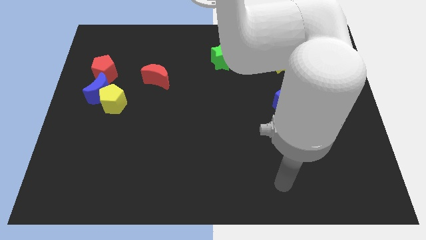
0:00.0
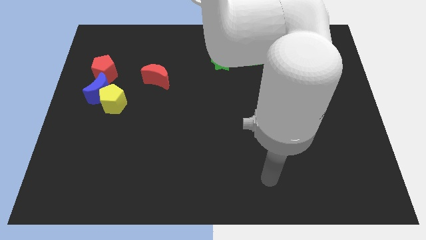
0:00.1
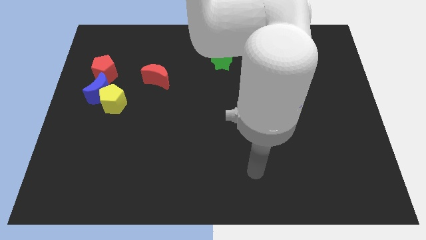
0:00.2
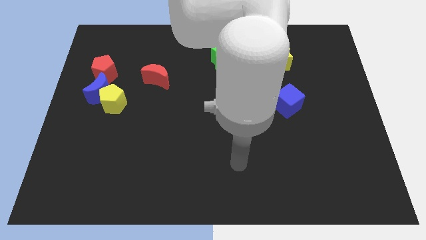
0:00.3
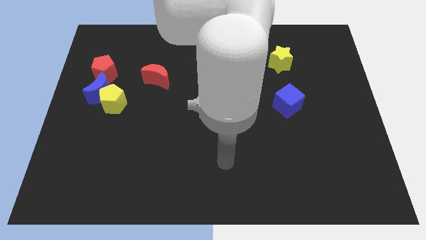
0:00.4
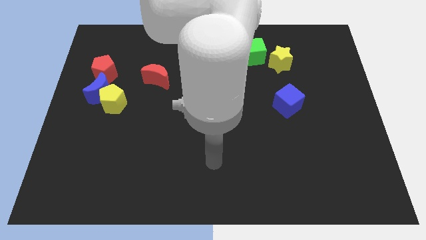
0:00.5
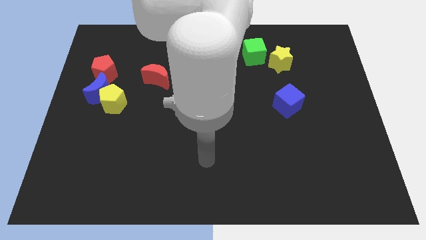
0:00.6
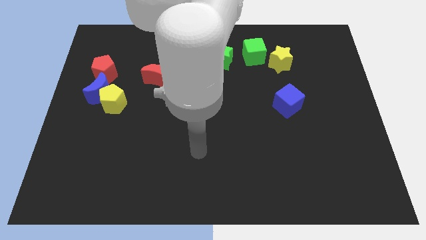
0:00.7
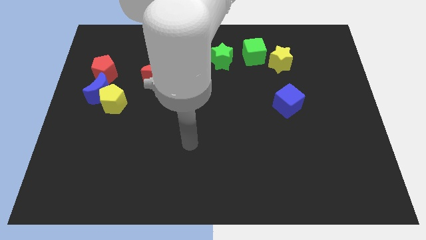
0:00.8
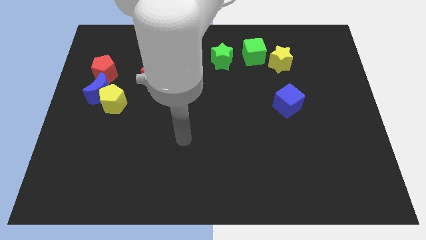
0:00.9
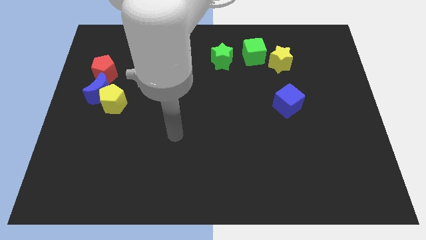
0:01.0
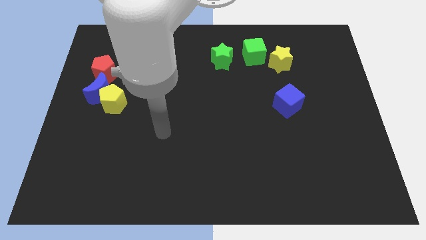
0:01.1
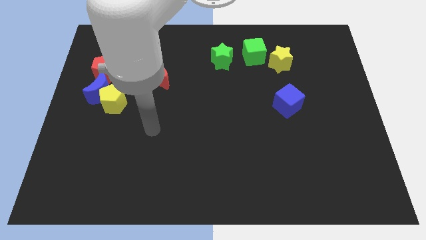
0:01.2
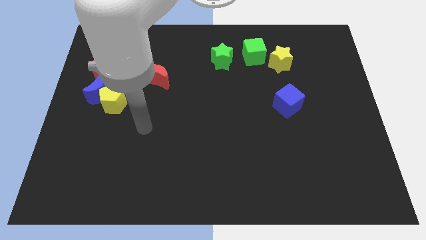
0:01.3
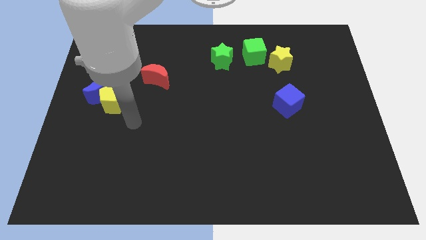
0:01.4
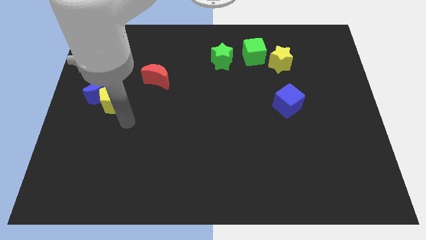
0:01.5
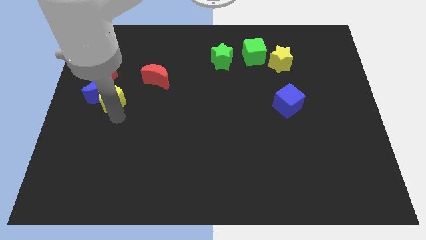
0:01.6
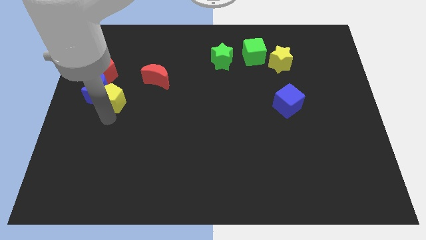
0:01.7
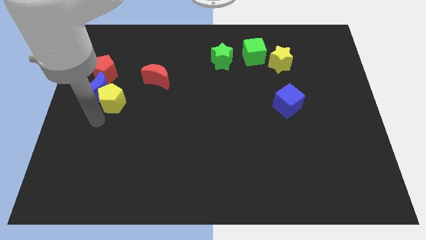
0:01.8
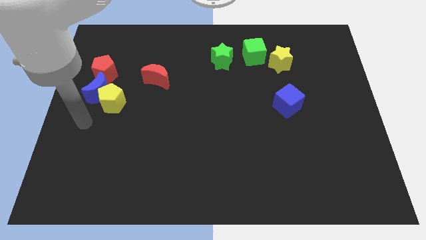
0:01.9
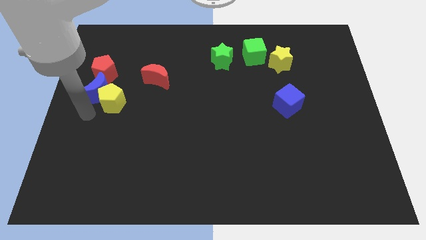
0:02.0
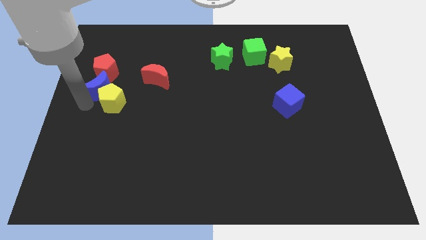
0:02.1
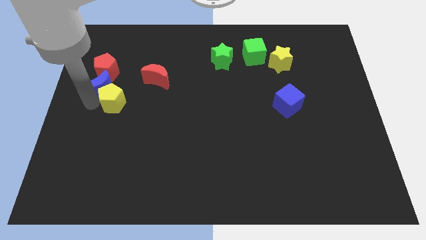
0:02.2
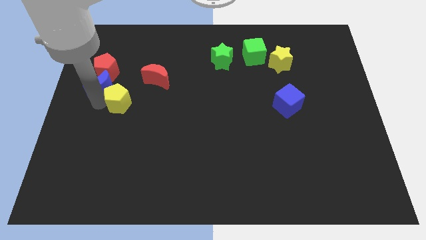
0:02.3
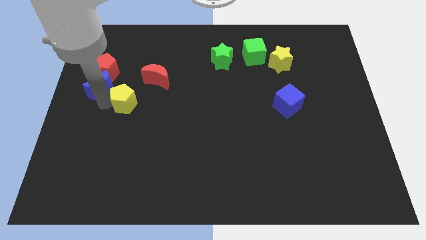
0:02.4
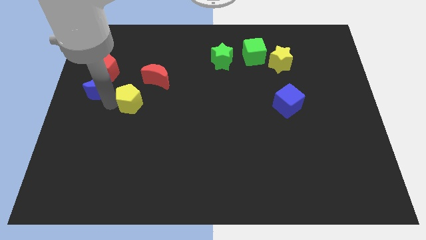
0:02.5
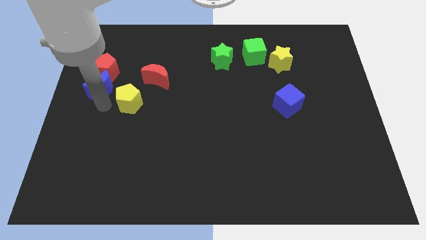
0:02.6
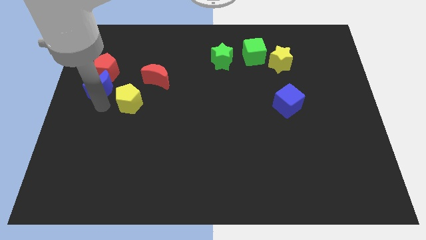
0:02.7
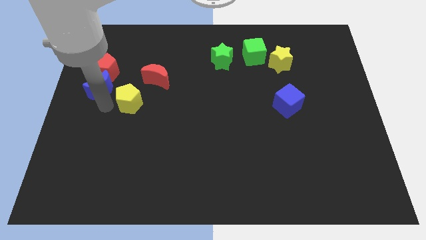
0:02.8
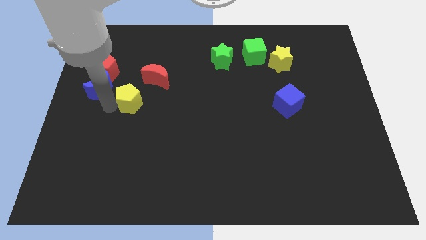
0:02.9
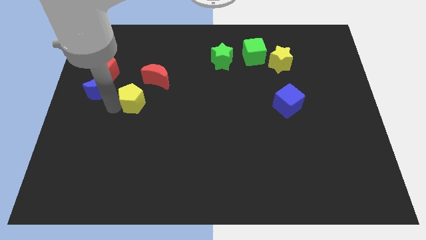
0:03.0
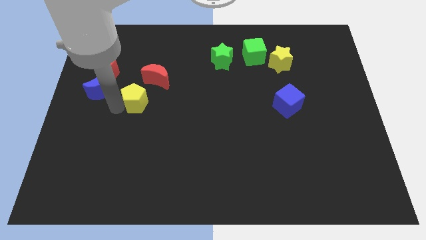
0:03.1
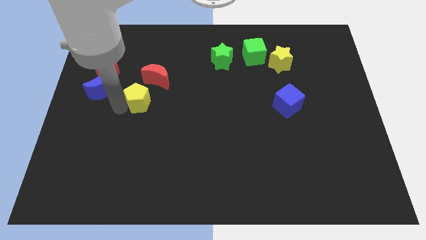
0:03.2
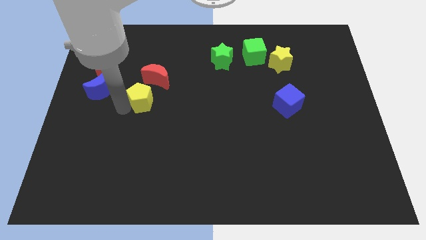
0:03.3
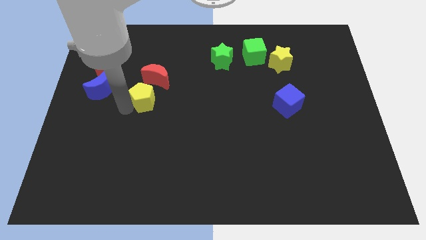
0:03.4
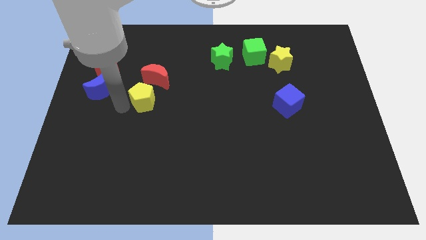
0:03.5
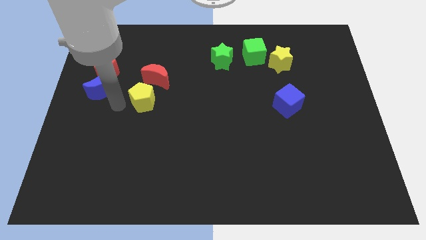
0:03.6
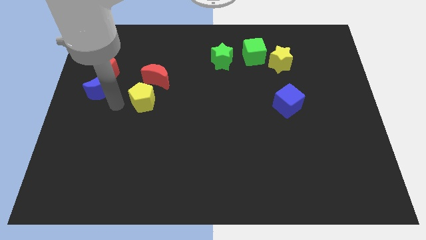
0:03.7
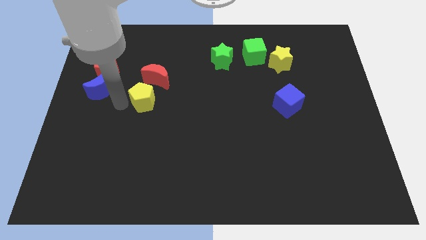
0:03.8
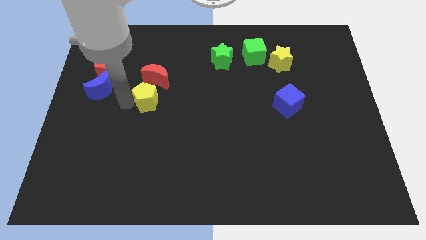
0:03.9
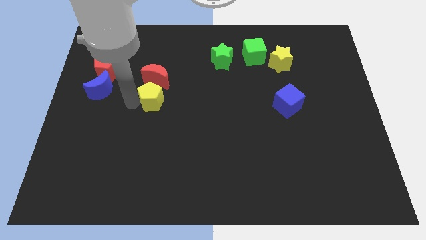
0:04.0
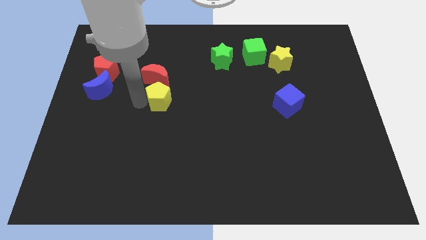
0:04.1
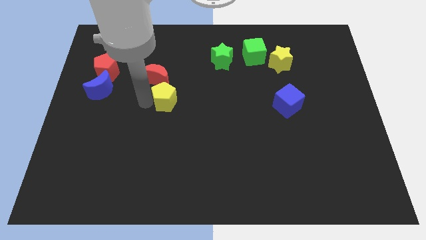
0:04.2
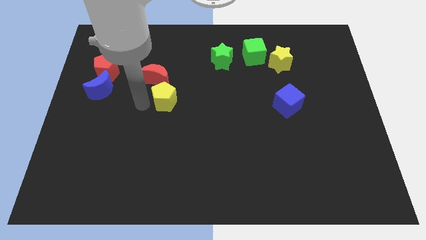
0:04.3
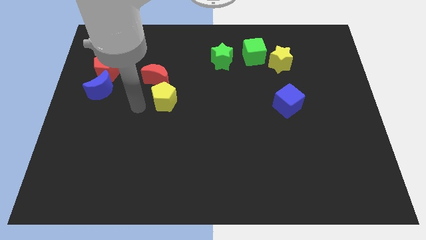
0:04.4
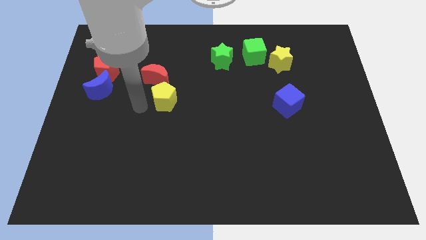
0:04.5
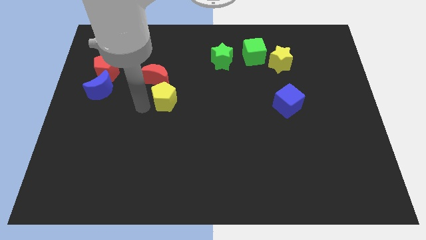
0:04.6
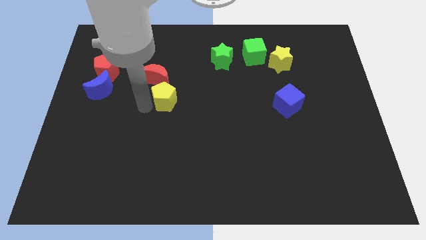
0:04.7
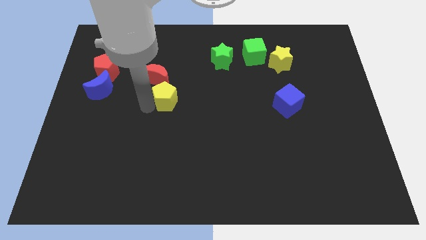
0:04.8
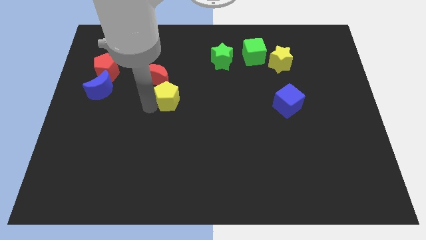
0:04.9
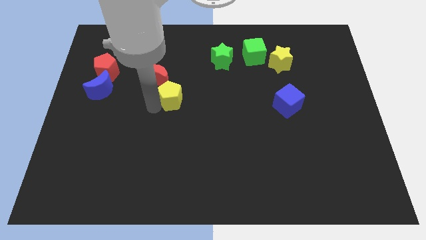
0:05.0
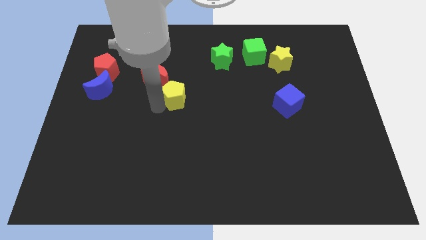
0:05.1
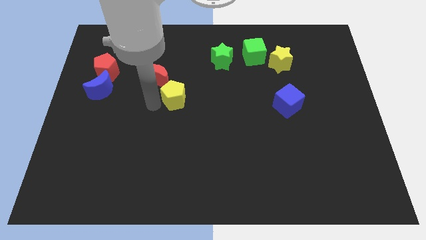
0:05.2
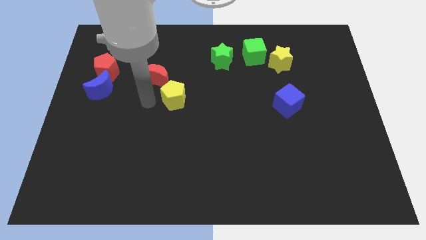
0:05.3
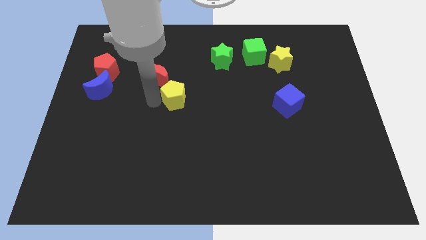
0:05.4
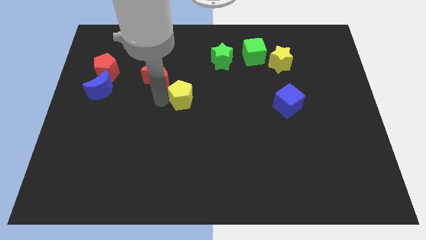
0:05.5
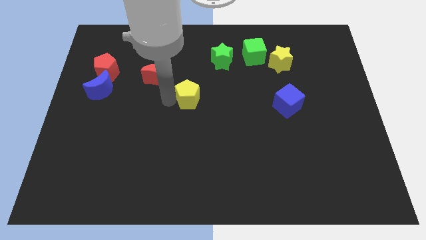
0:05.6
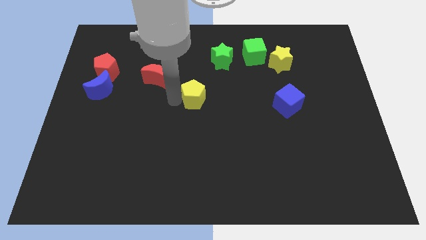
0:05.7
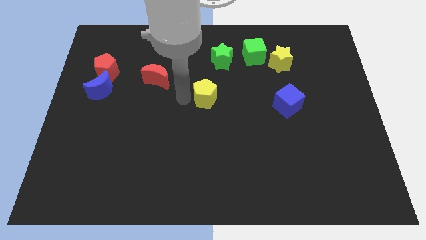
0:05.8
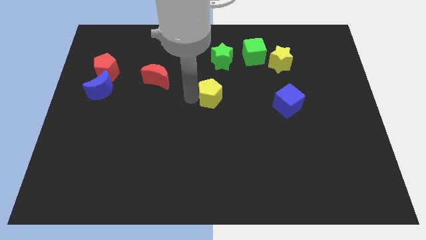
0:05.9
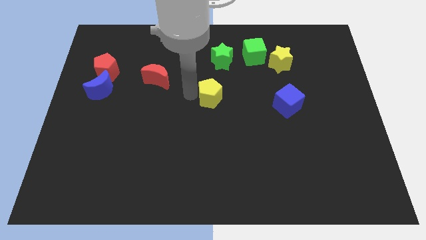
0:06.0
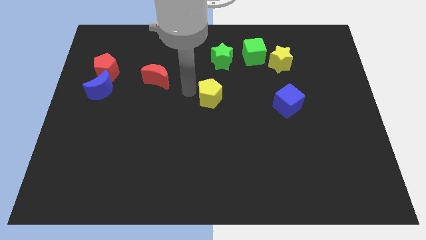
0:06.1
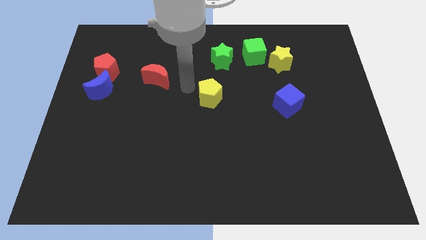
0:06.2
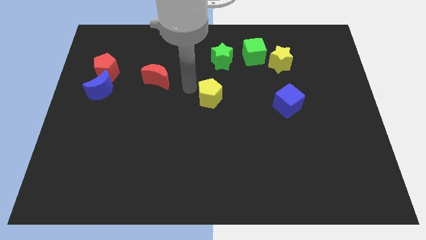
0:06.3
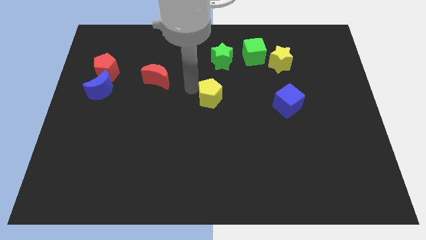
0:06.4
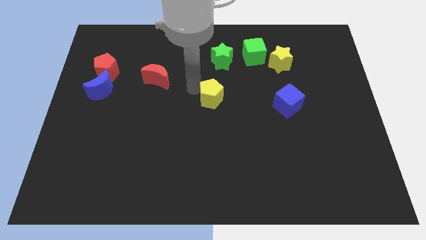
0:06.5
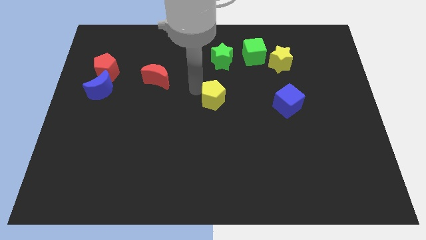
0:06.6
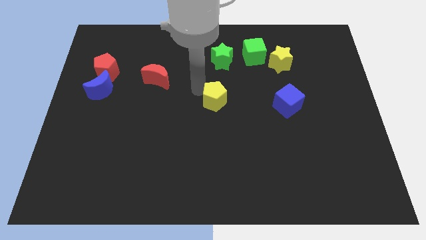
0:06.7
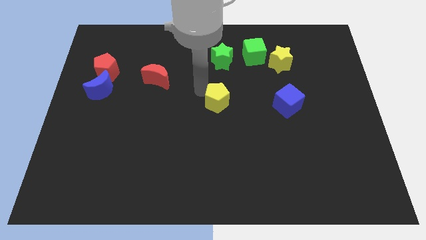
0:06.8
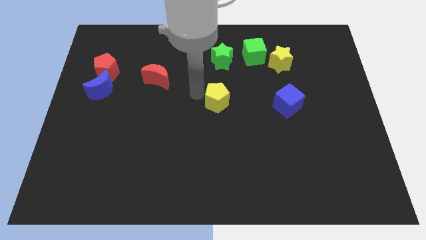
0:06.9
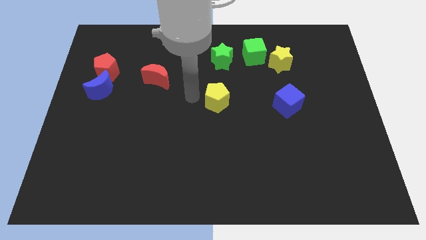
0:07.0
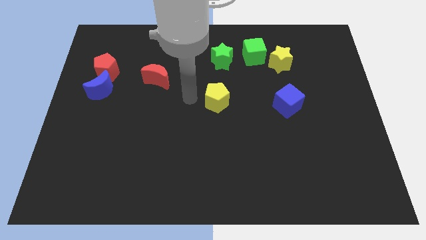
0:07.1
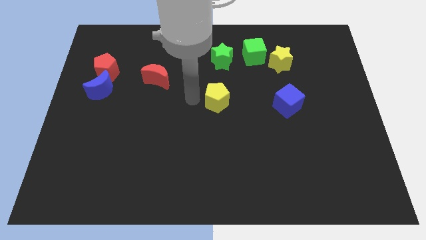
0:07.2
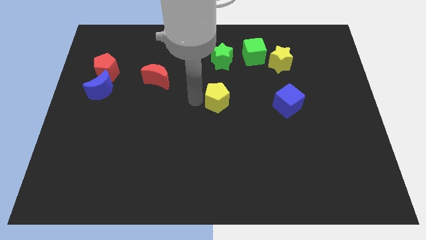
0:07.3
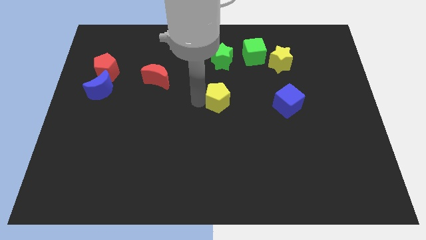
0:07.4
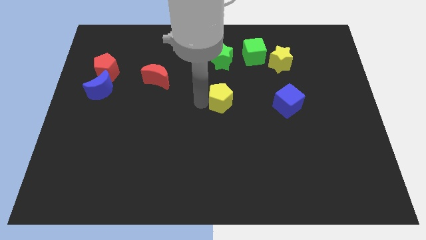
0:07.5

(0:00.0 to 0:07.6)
push the yellow pentagon to the left of the blue cube
